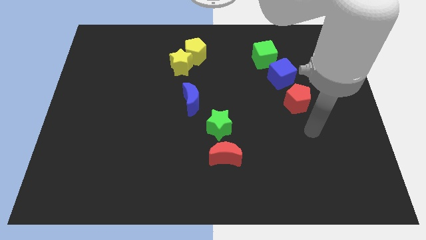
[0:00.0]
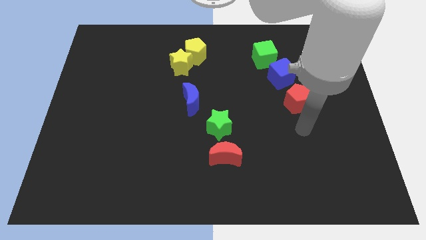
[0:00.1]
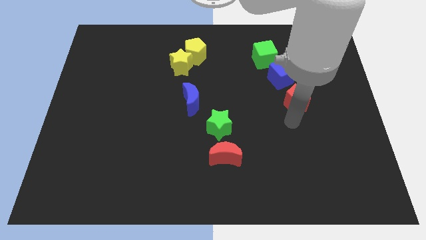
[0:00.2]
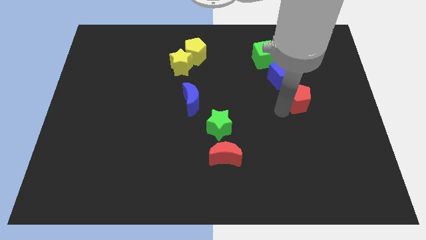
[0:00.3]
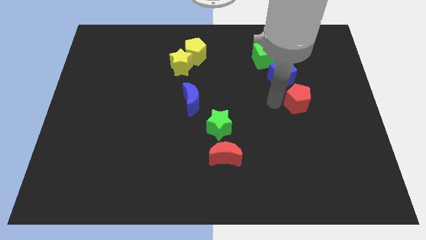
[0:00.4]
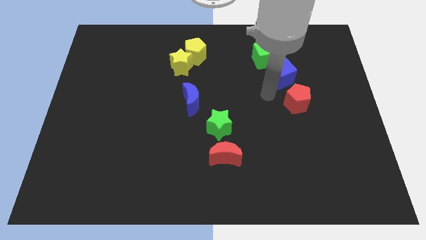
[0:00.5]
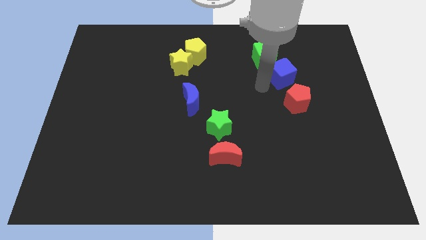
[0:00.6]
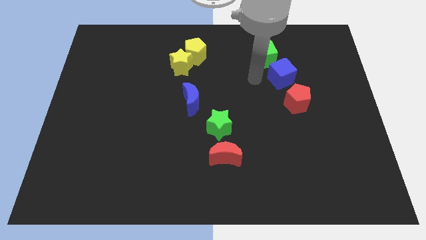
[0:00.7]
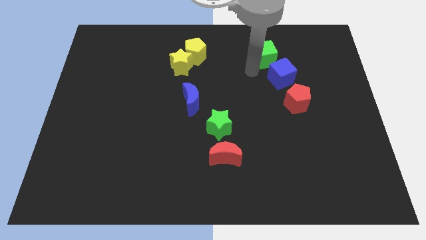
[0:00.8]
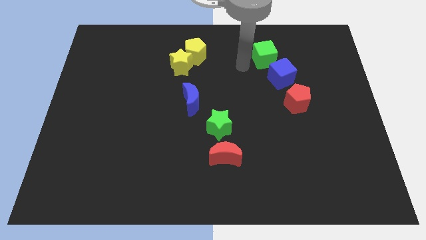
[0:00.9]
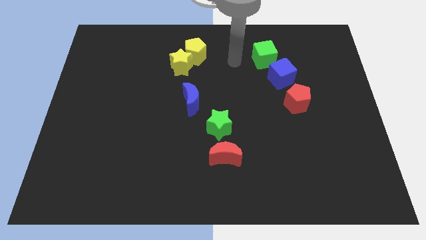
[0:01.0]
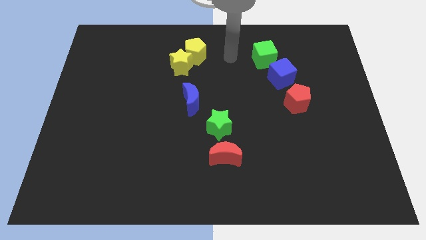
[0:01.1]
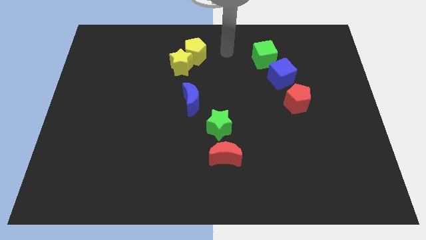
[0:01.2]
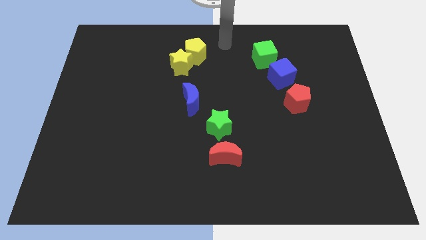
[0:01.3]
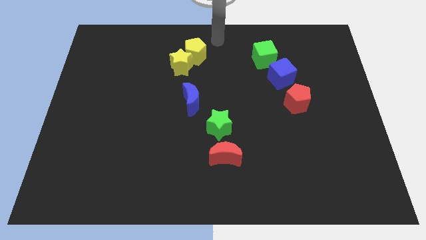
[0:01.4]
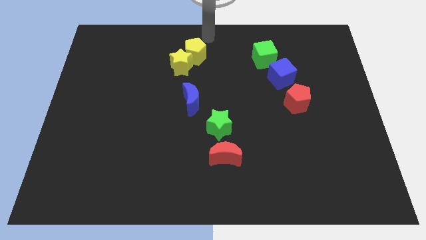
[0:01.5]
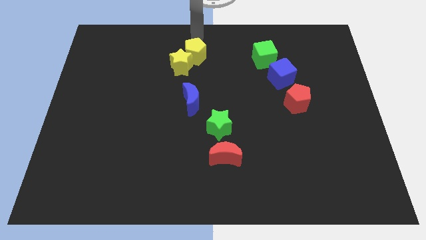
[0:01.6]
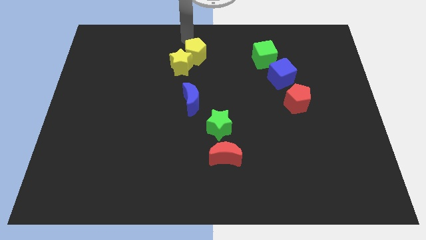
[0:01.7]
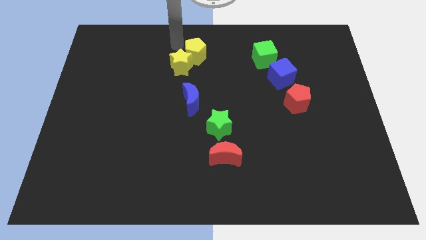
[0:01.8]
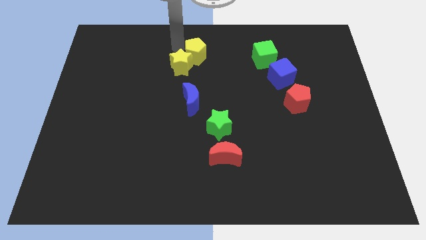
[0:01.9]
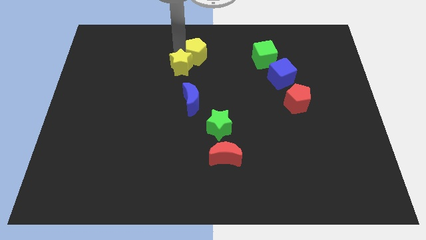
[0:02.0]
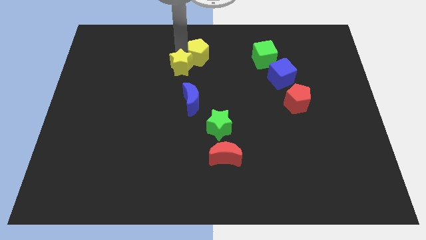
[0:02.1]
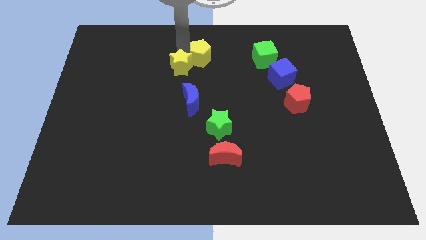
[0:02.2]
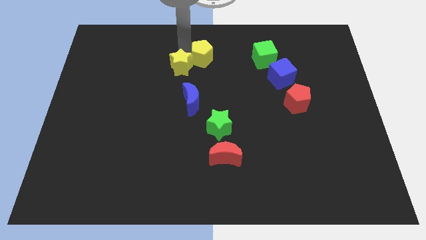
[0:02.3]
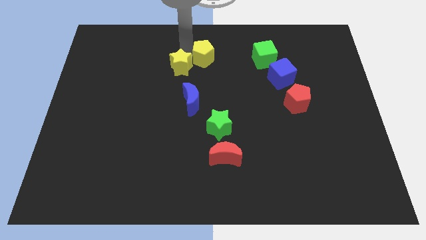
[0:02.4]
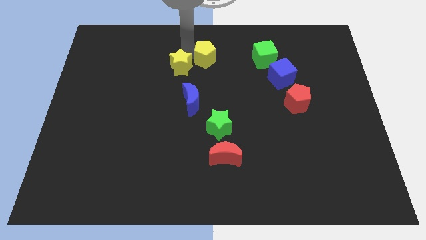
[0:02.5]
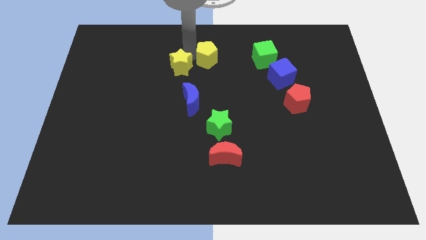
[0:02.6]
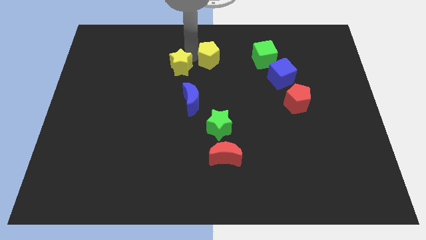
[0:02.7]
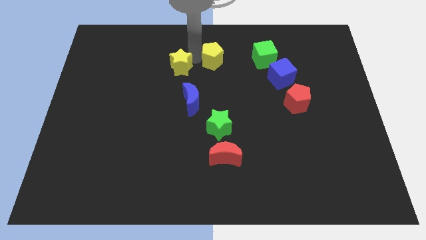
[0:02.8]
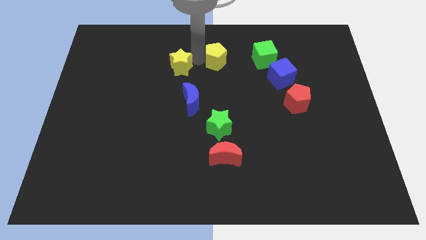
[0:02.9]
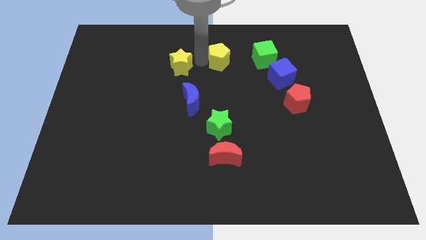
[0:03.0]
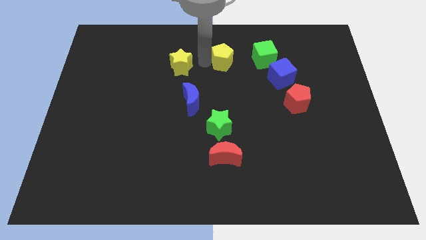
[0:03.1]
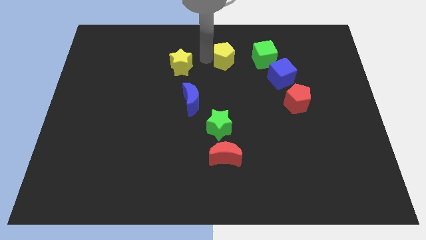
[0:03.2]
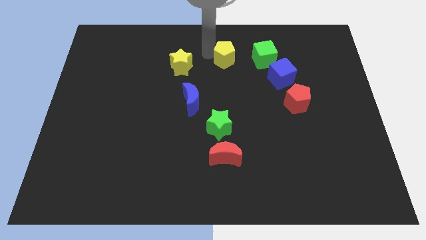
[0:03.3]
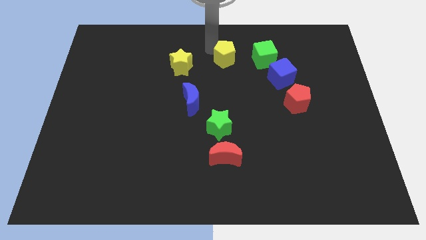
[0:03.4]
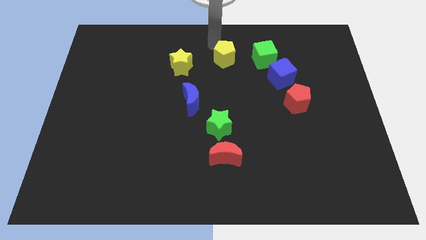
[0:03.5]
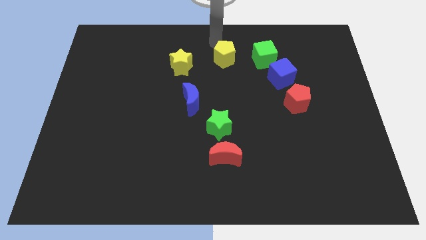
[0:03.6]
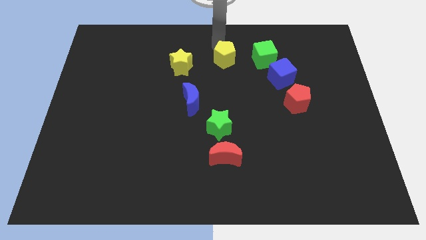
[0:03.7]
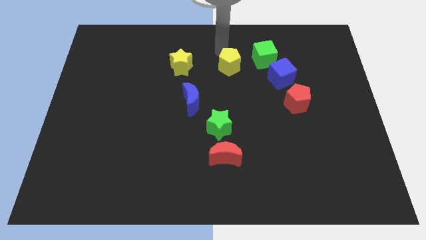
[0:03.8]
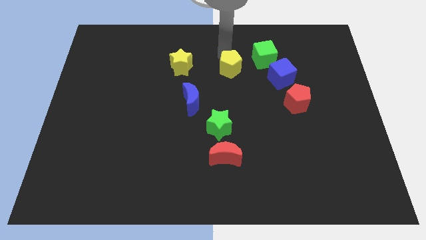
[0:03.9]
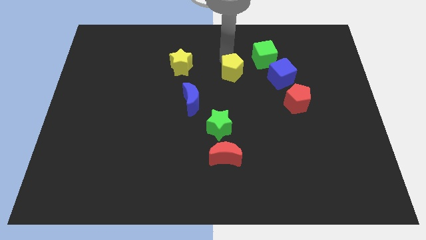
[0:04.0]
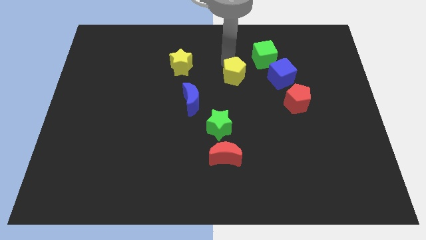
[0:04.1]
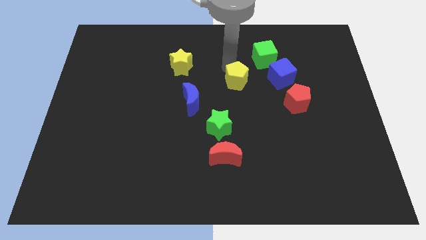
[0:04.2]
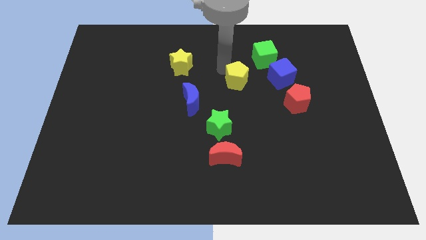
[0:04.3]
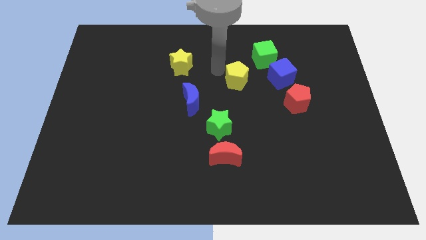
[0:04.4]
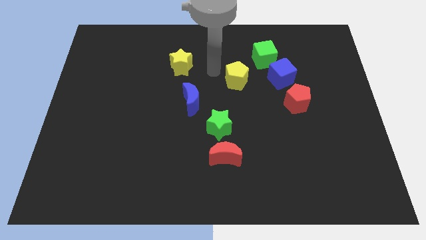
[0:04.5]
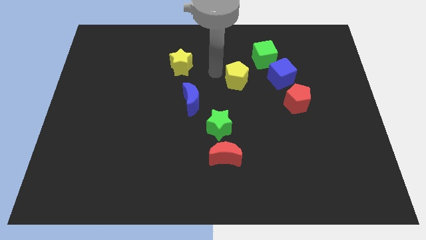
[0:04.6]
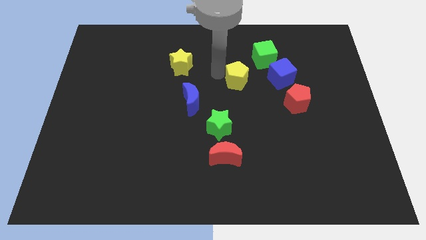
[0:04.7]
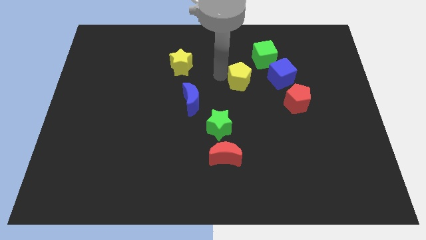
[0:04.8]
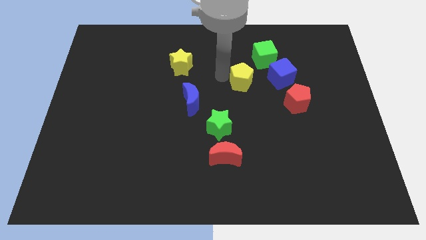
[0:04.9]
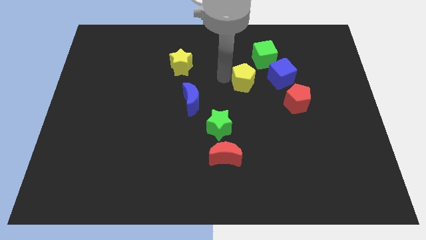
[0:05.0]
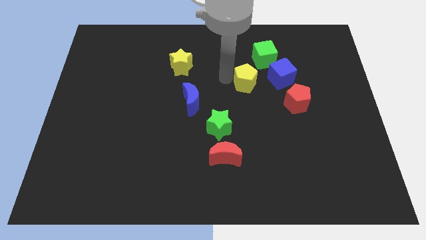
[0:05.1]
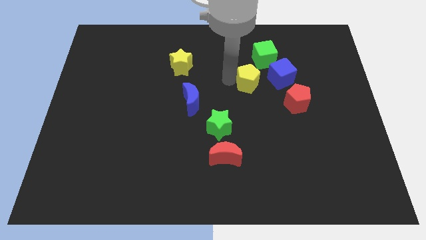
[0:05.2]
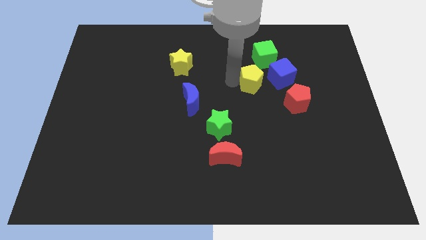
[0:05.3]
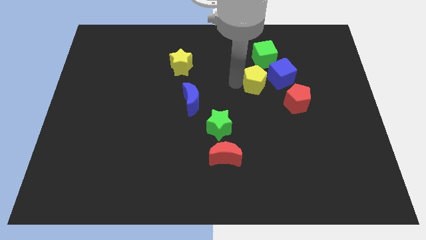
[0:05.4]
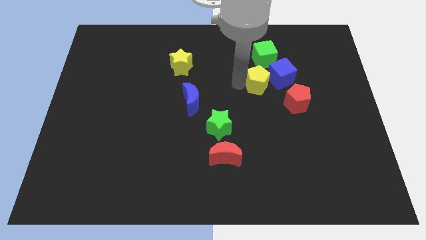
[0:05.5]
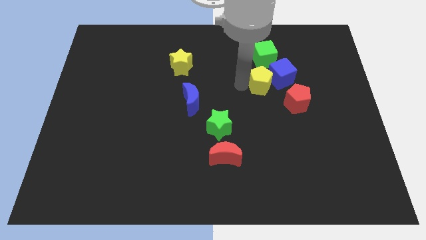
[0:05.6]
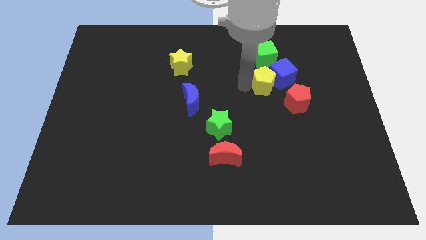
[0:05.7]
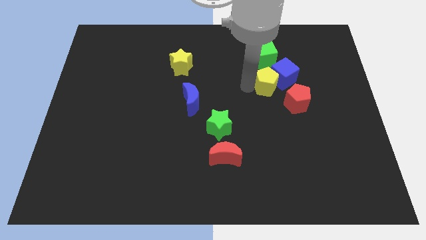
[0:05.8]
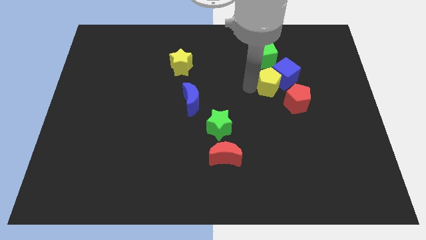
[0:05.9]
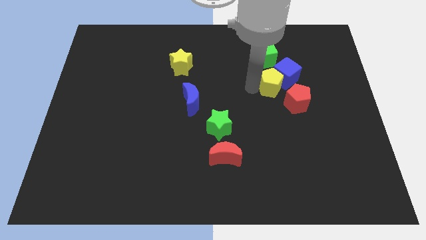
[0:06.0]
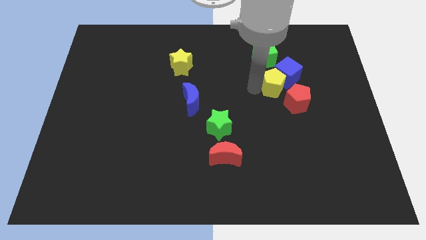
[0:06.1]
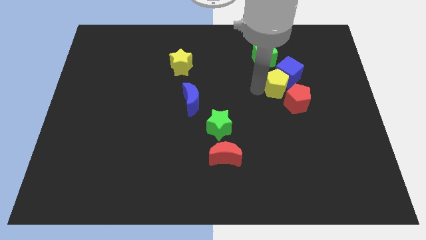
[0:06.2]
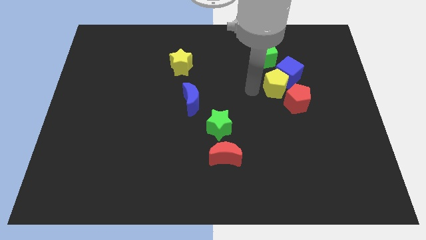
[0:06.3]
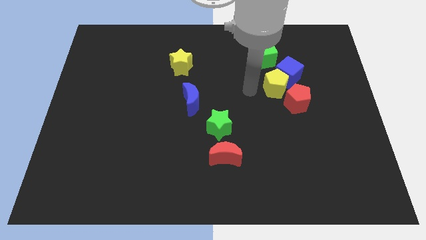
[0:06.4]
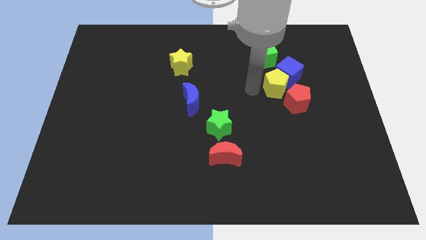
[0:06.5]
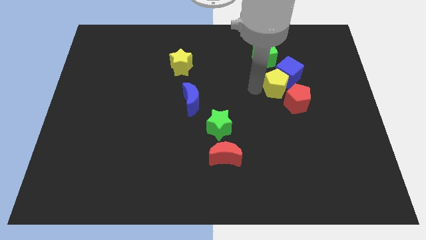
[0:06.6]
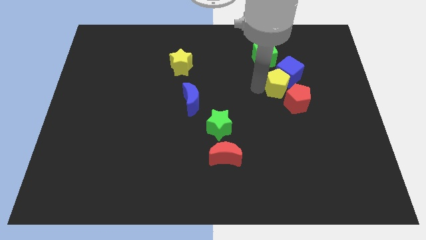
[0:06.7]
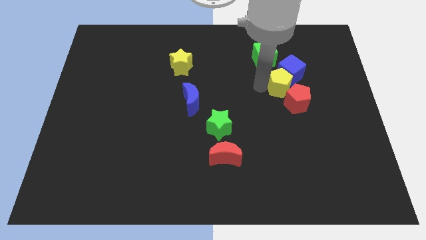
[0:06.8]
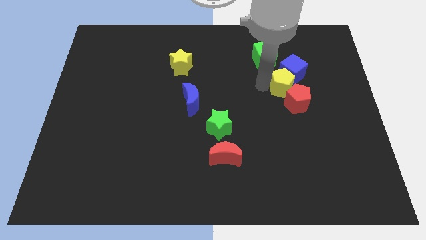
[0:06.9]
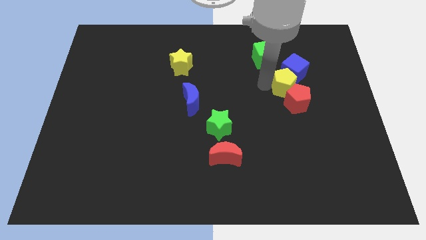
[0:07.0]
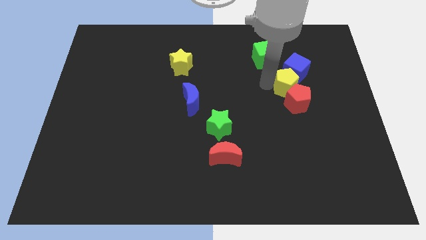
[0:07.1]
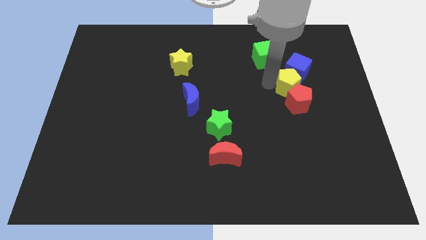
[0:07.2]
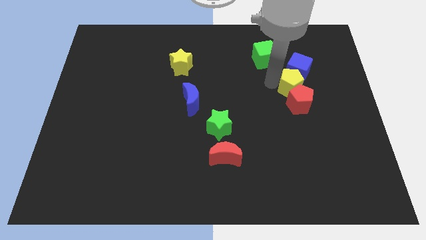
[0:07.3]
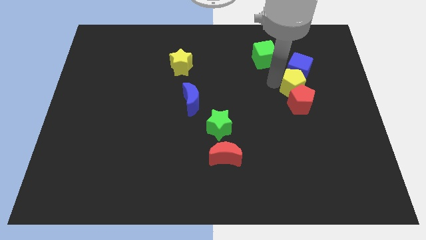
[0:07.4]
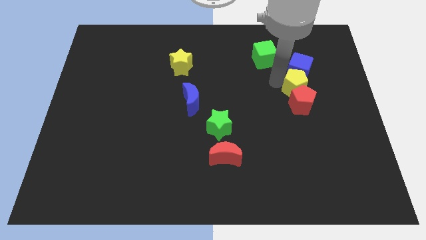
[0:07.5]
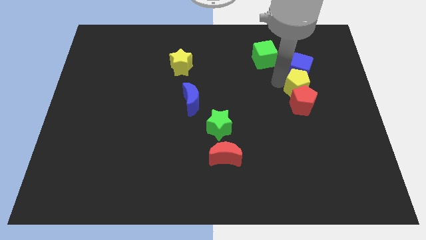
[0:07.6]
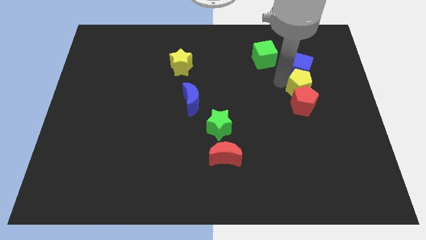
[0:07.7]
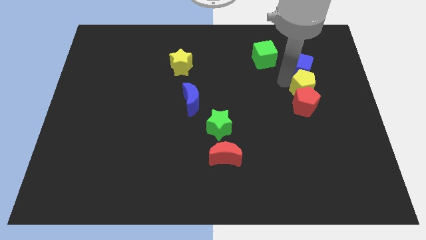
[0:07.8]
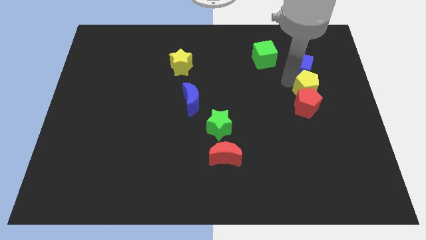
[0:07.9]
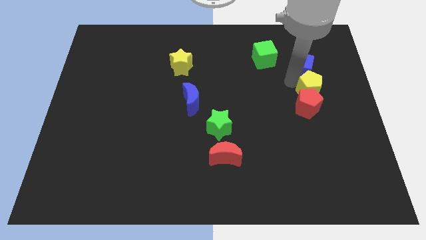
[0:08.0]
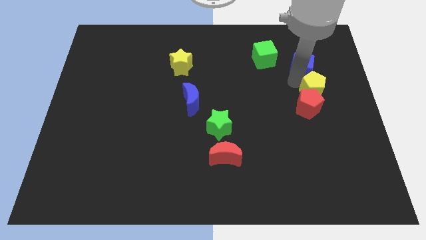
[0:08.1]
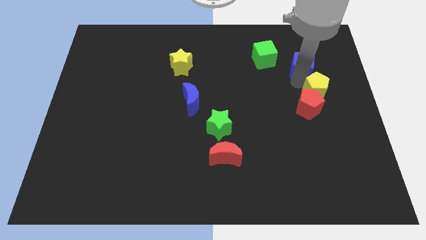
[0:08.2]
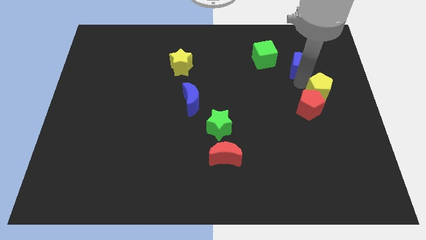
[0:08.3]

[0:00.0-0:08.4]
move the yellow pentagon to the right side of the board
